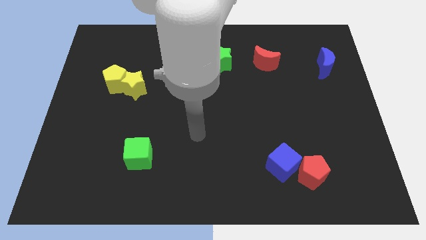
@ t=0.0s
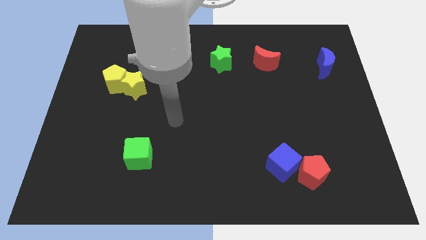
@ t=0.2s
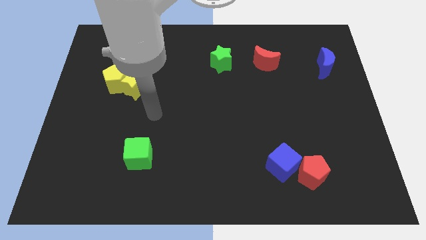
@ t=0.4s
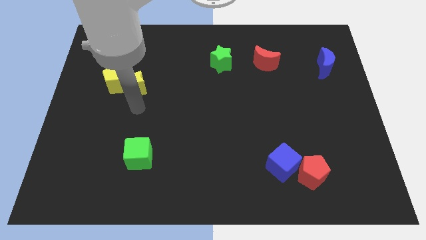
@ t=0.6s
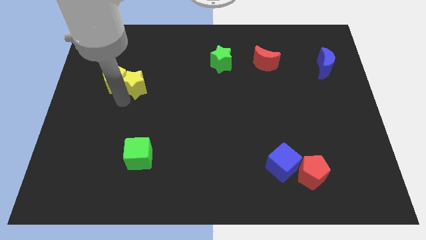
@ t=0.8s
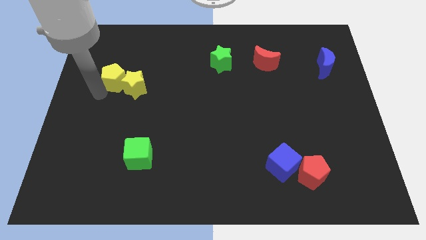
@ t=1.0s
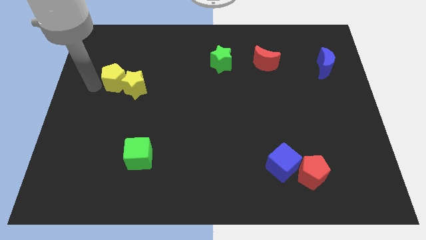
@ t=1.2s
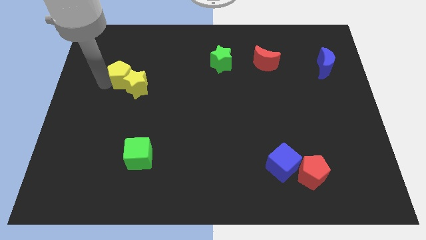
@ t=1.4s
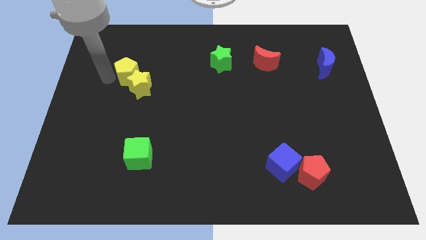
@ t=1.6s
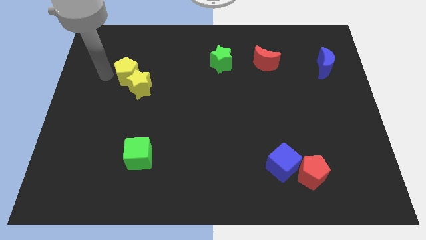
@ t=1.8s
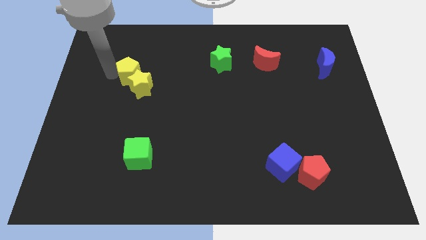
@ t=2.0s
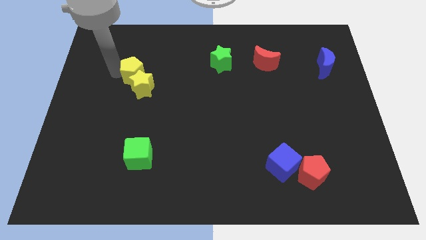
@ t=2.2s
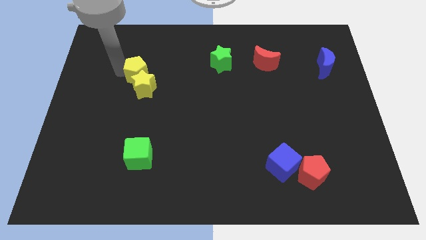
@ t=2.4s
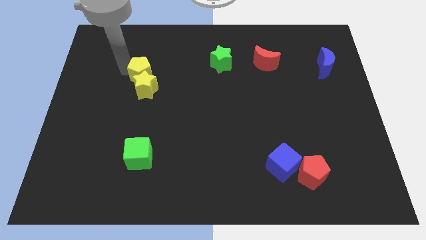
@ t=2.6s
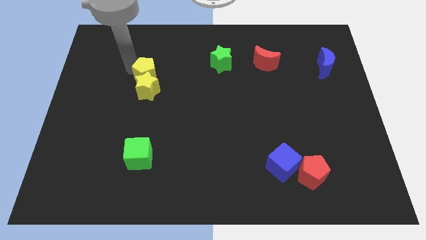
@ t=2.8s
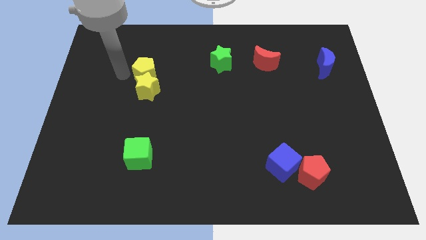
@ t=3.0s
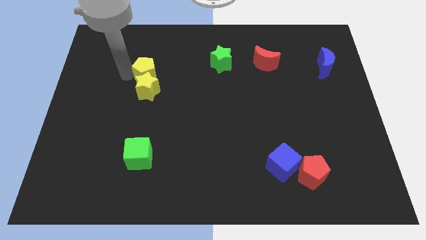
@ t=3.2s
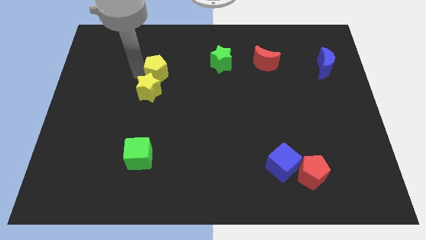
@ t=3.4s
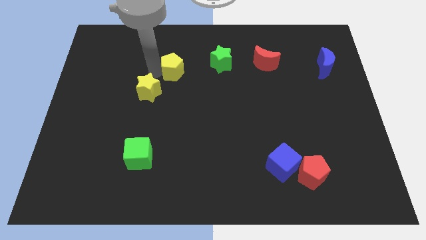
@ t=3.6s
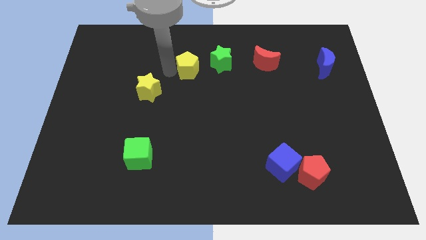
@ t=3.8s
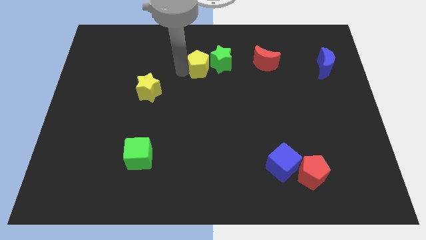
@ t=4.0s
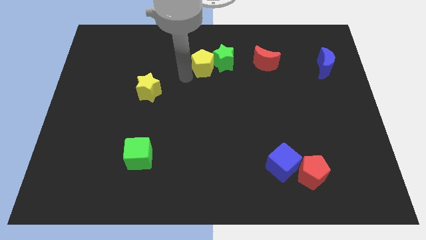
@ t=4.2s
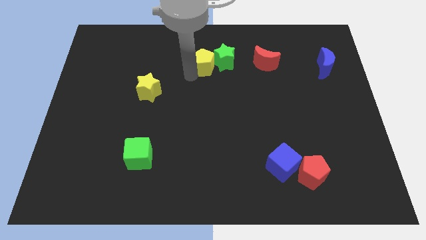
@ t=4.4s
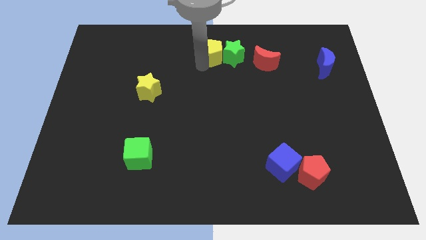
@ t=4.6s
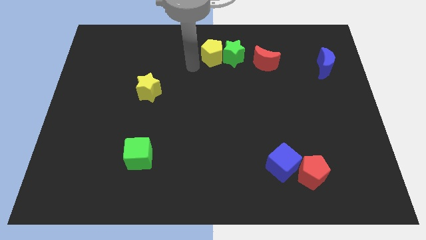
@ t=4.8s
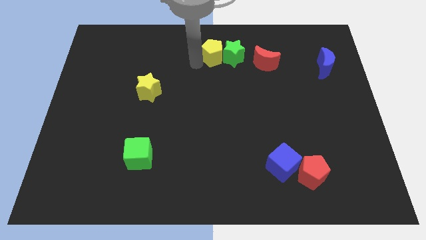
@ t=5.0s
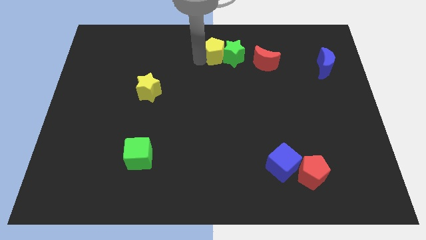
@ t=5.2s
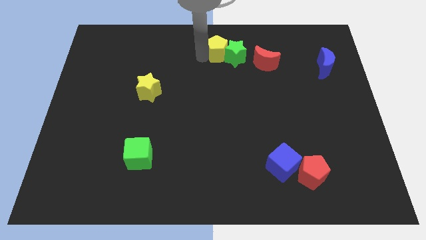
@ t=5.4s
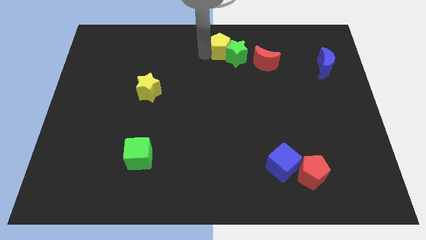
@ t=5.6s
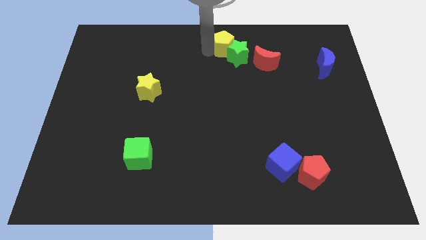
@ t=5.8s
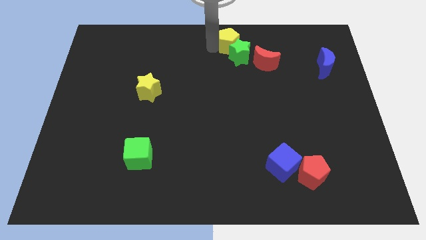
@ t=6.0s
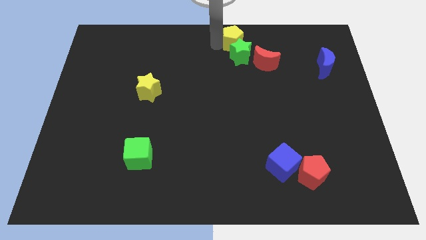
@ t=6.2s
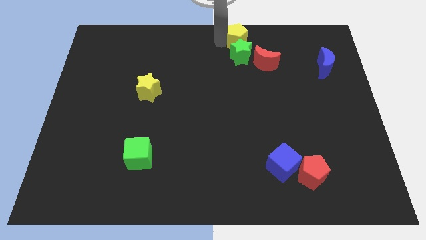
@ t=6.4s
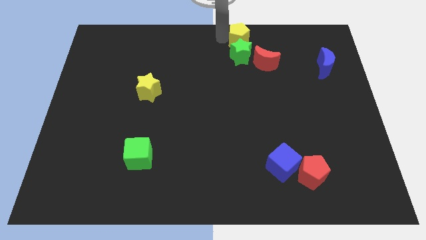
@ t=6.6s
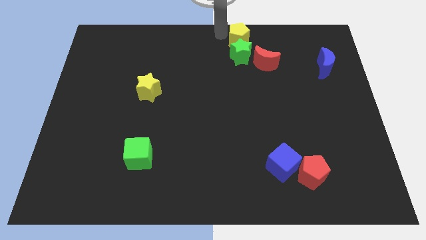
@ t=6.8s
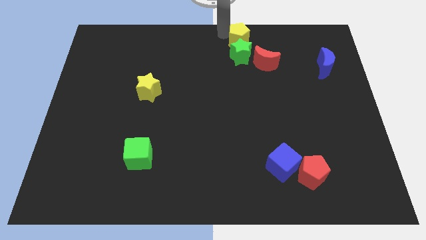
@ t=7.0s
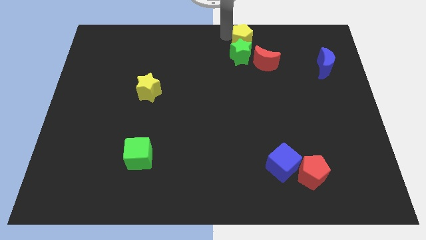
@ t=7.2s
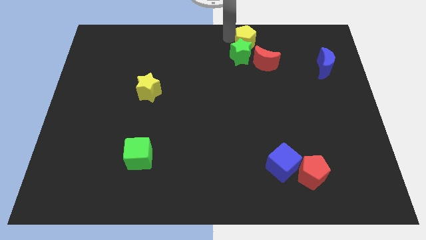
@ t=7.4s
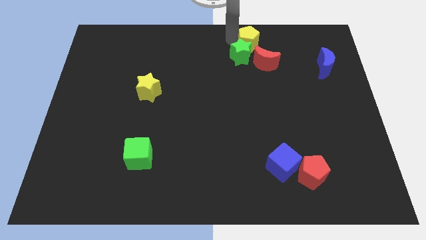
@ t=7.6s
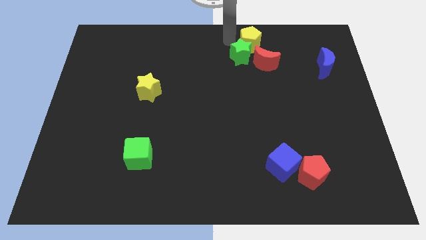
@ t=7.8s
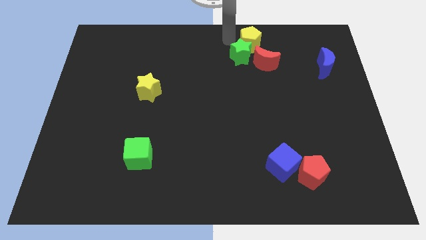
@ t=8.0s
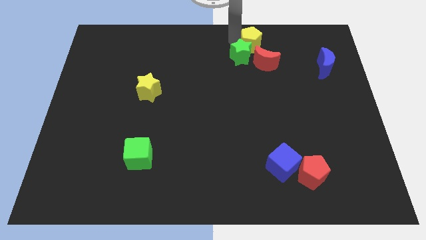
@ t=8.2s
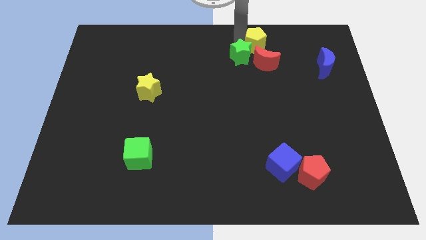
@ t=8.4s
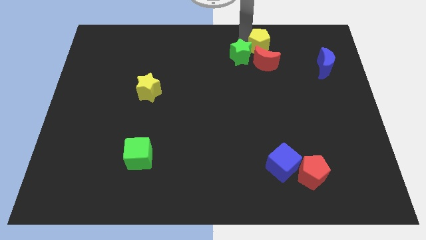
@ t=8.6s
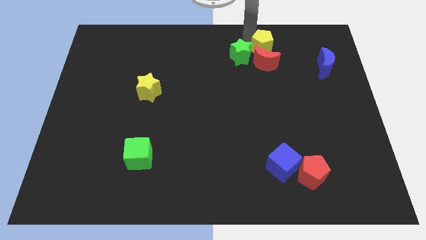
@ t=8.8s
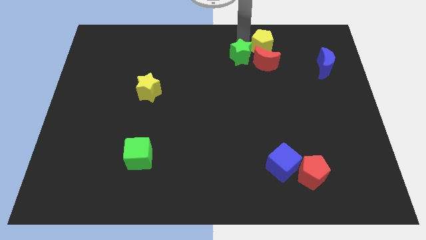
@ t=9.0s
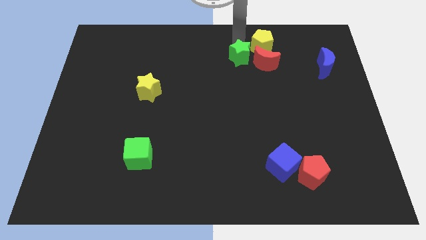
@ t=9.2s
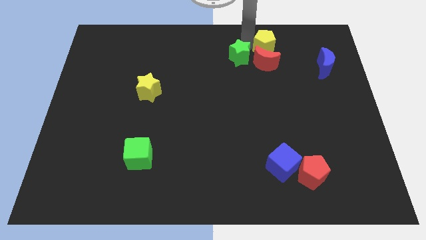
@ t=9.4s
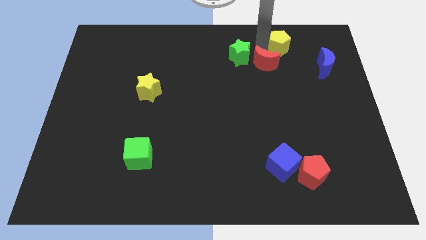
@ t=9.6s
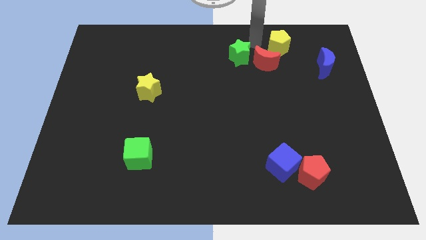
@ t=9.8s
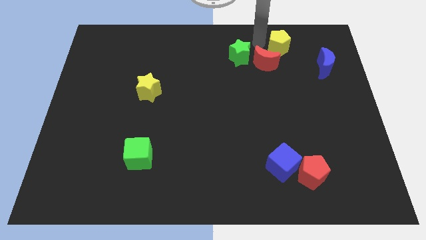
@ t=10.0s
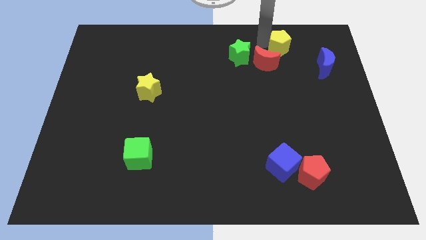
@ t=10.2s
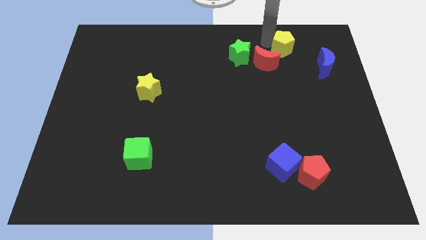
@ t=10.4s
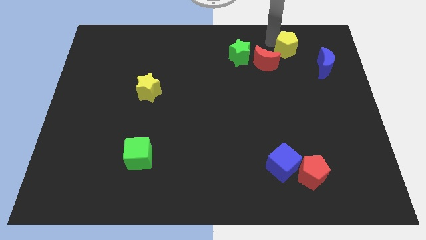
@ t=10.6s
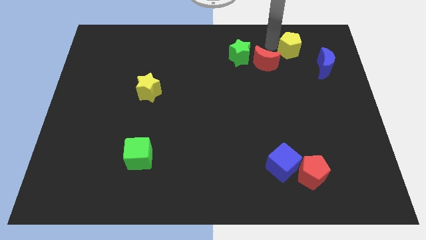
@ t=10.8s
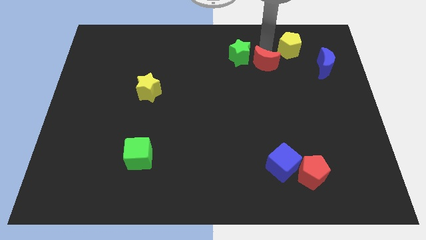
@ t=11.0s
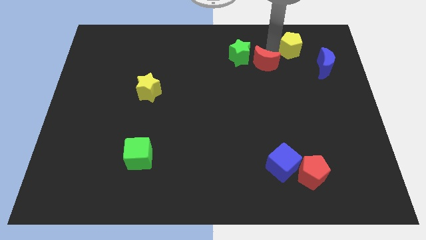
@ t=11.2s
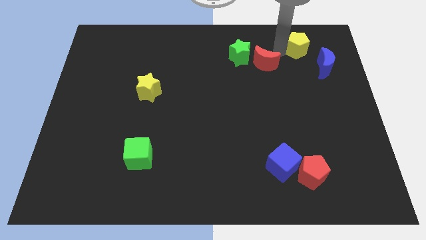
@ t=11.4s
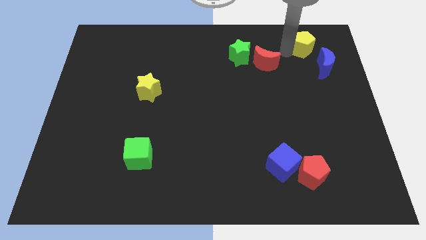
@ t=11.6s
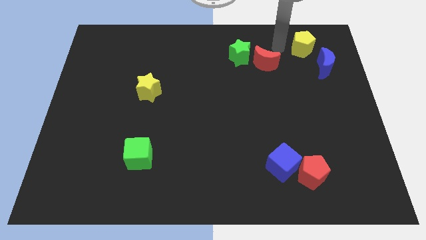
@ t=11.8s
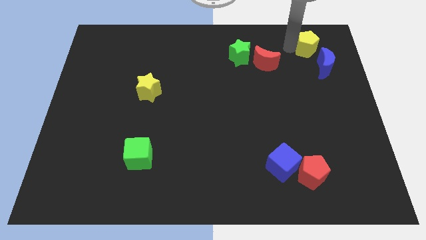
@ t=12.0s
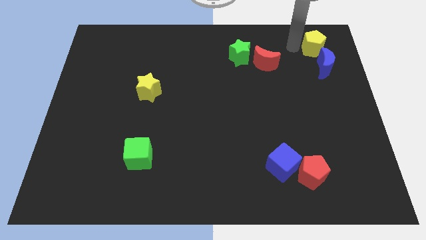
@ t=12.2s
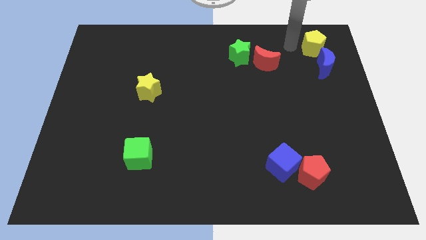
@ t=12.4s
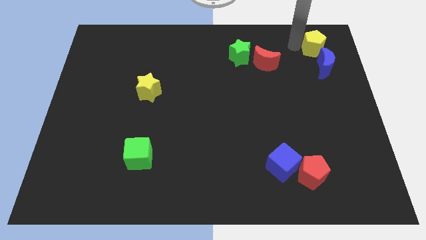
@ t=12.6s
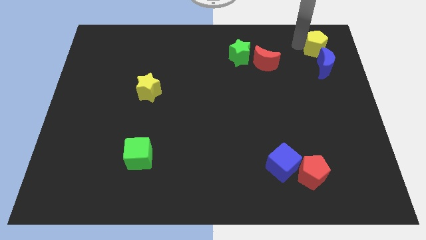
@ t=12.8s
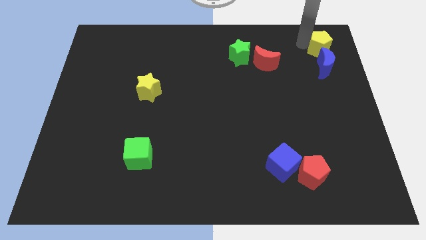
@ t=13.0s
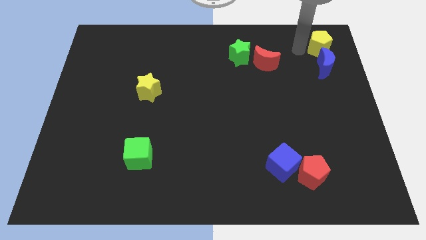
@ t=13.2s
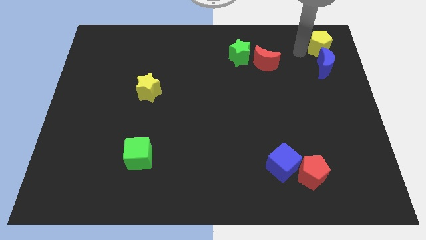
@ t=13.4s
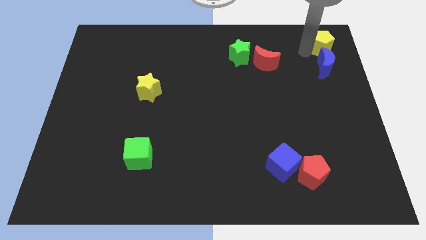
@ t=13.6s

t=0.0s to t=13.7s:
move the yellow pentagon to the top right
